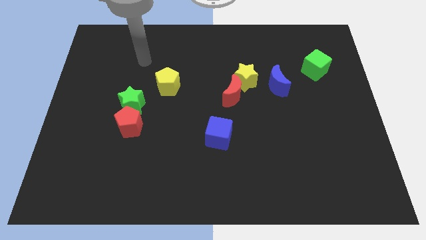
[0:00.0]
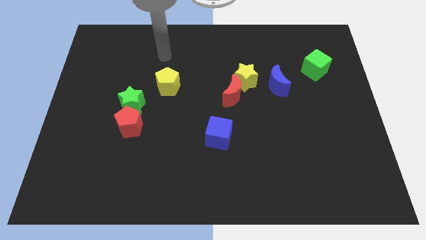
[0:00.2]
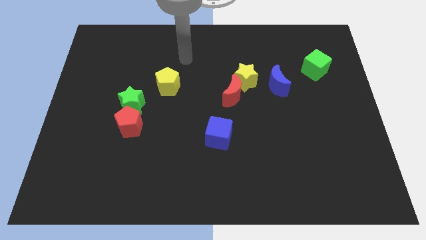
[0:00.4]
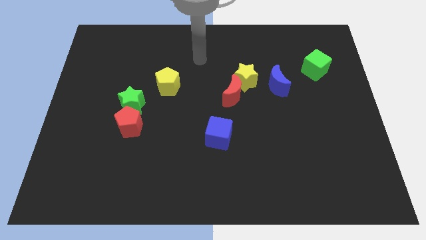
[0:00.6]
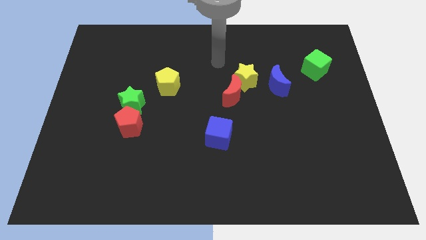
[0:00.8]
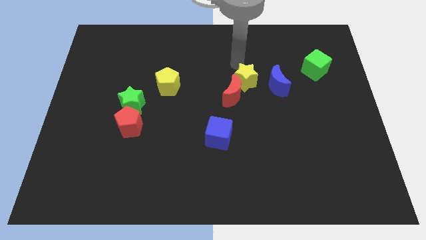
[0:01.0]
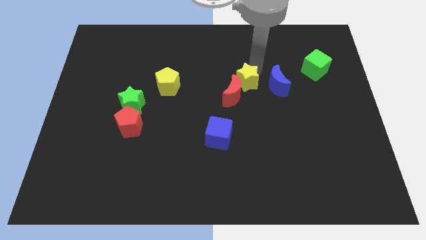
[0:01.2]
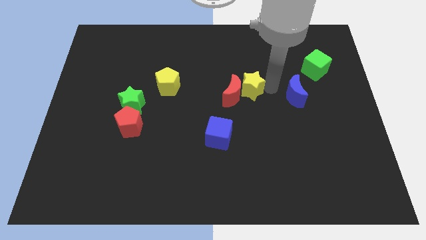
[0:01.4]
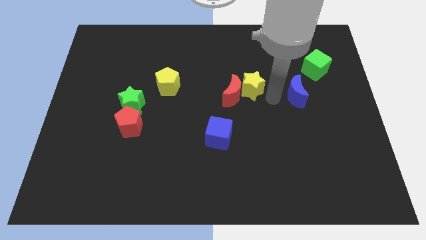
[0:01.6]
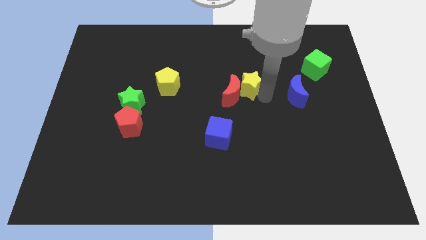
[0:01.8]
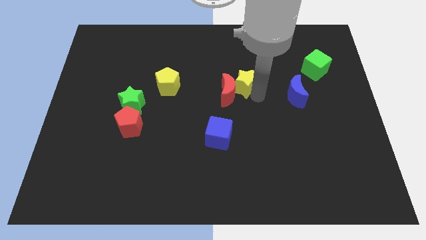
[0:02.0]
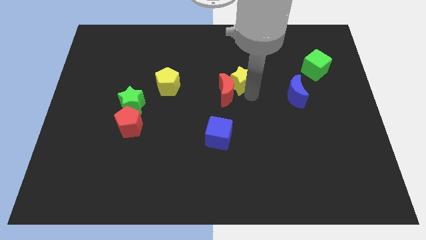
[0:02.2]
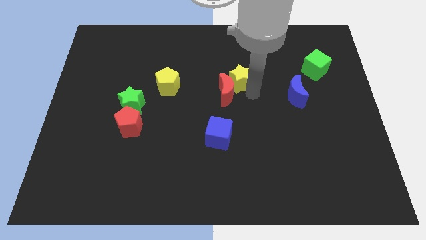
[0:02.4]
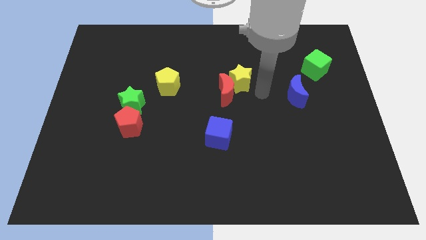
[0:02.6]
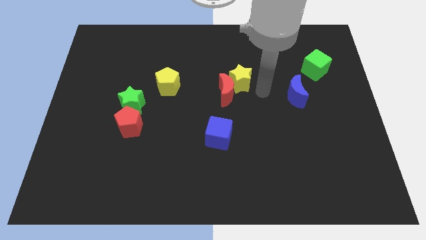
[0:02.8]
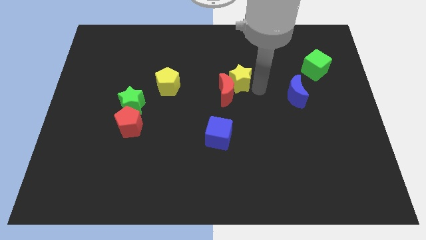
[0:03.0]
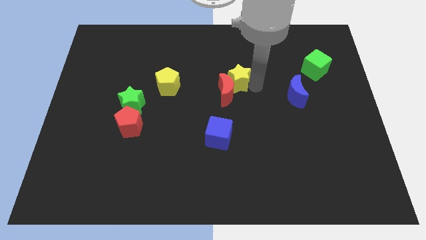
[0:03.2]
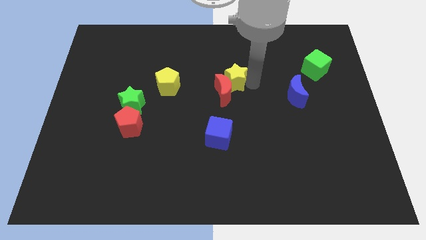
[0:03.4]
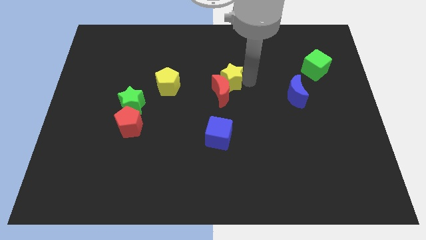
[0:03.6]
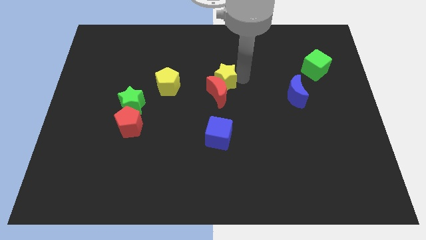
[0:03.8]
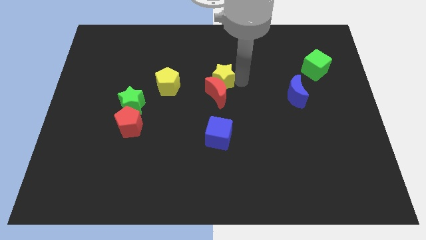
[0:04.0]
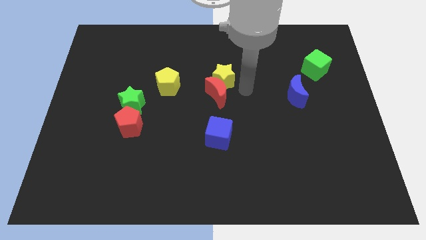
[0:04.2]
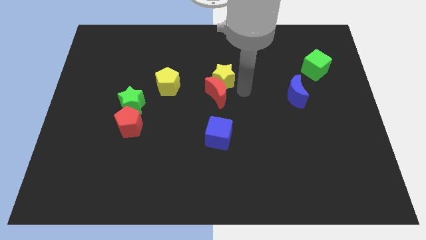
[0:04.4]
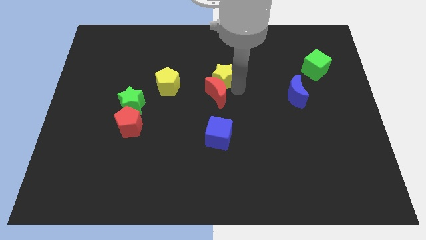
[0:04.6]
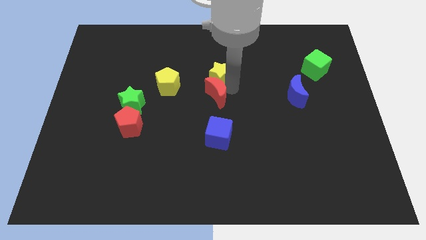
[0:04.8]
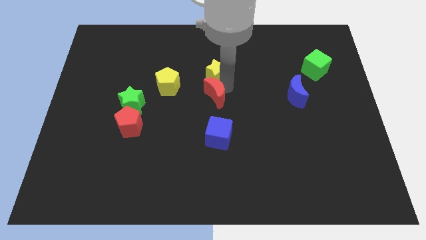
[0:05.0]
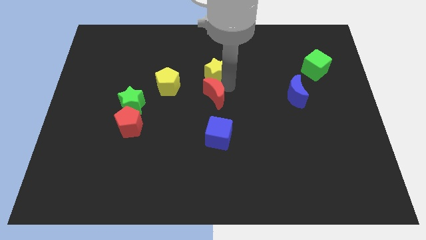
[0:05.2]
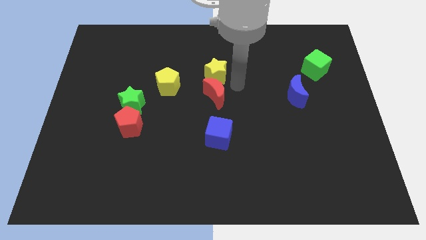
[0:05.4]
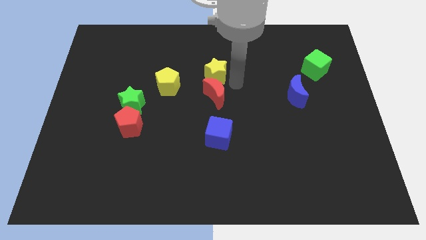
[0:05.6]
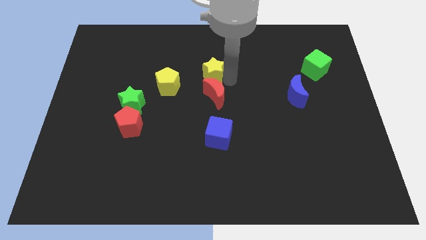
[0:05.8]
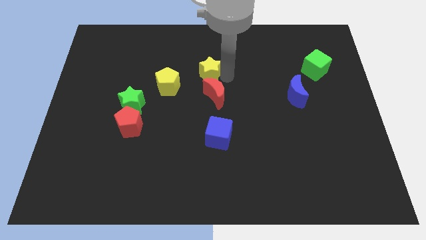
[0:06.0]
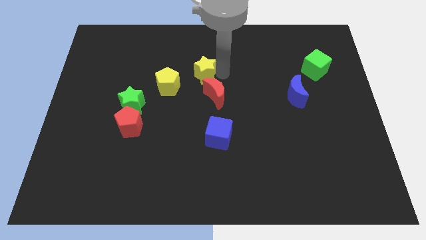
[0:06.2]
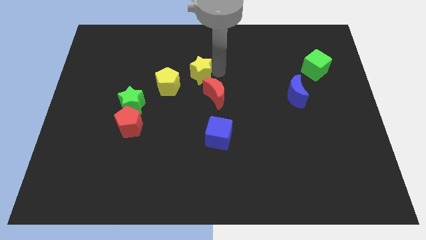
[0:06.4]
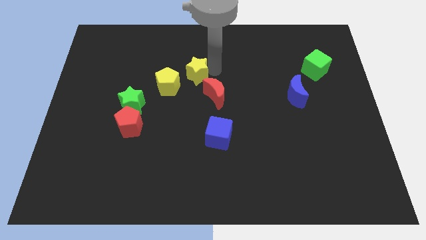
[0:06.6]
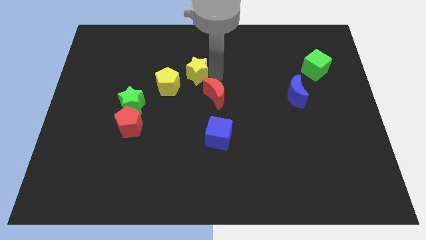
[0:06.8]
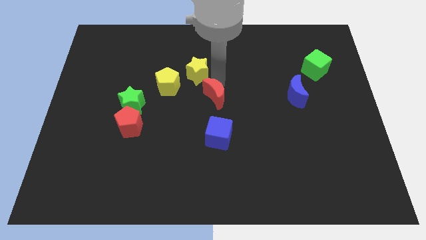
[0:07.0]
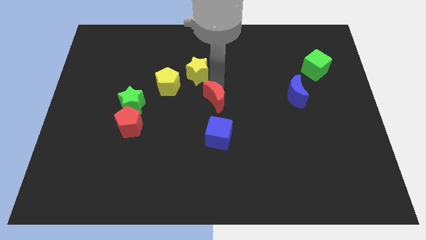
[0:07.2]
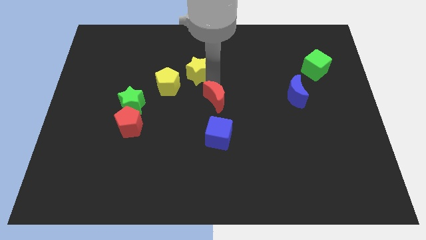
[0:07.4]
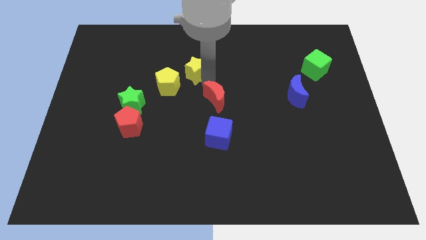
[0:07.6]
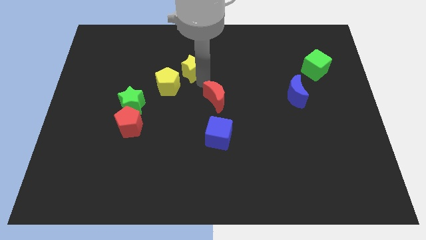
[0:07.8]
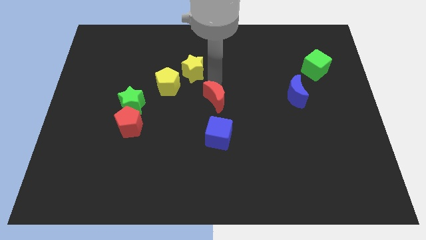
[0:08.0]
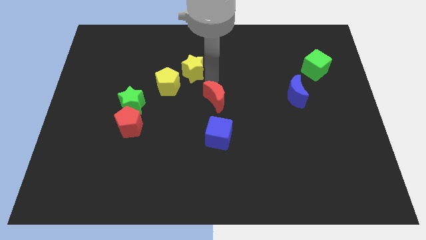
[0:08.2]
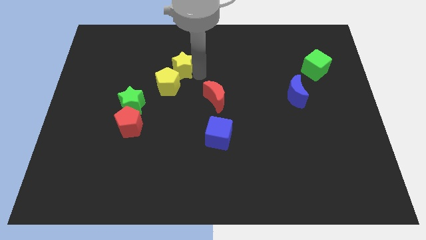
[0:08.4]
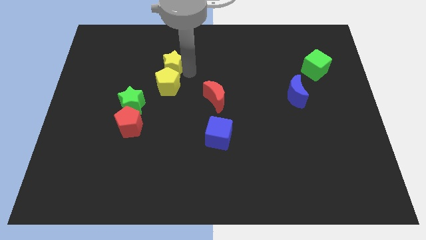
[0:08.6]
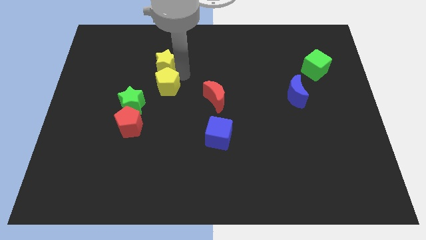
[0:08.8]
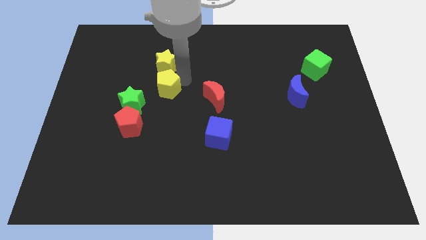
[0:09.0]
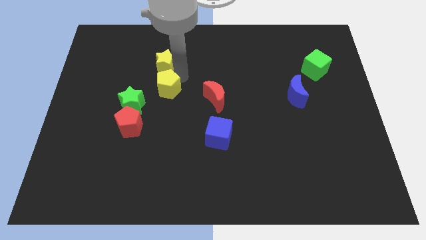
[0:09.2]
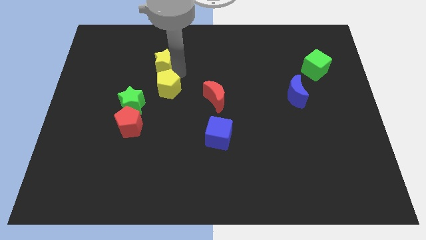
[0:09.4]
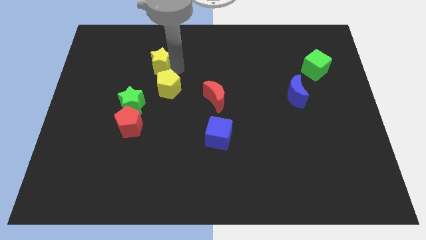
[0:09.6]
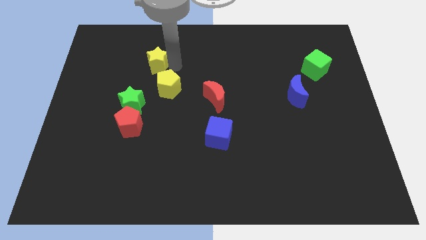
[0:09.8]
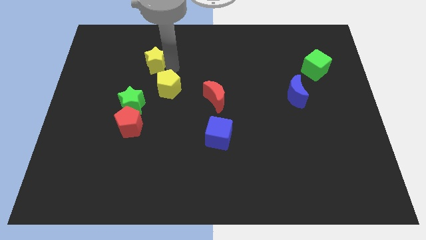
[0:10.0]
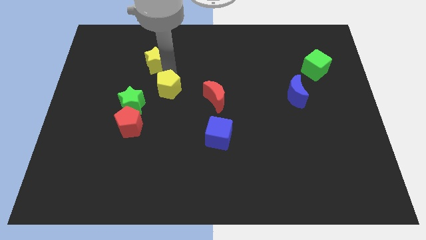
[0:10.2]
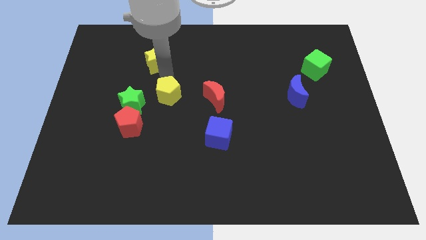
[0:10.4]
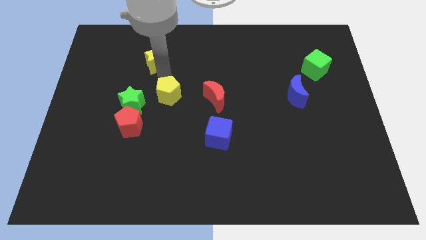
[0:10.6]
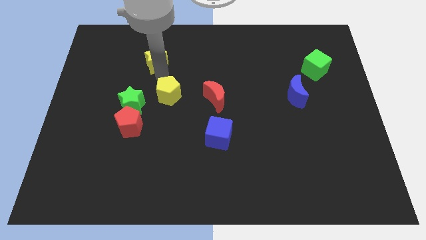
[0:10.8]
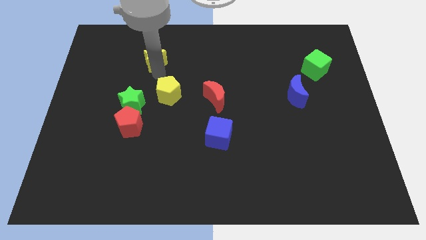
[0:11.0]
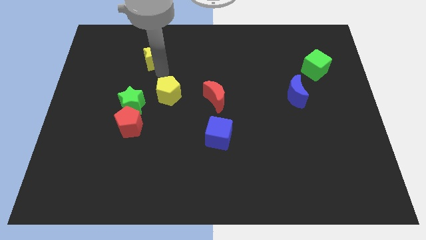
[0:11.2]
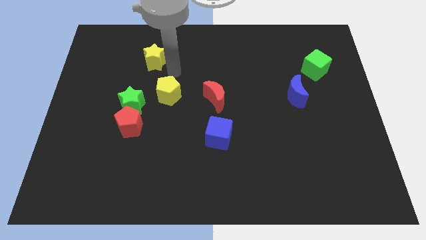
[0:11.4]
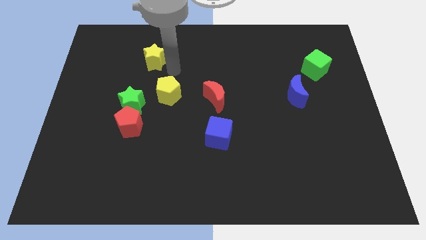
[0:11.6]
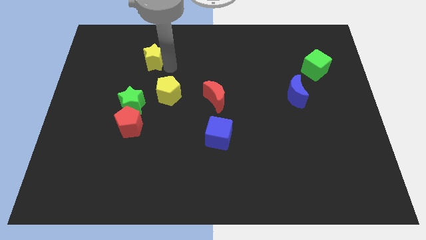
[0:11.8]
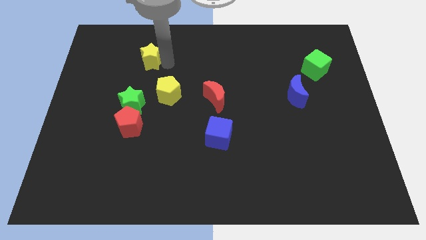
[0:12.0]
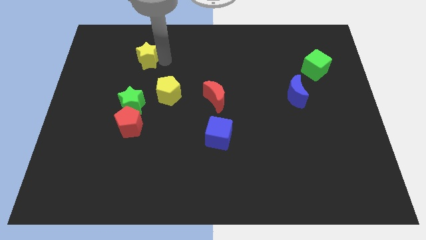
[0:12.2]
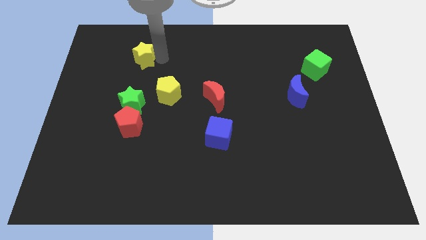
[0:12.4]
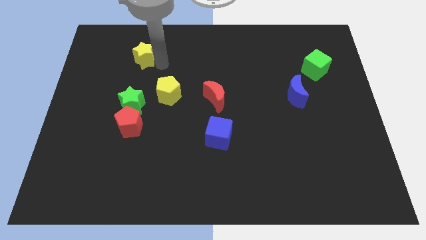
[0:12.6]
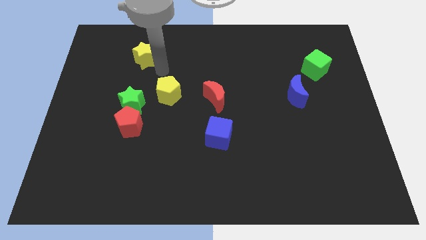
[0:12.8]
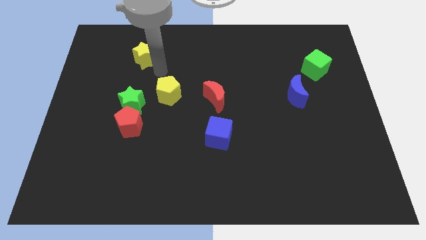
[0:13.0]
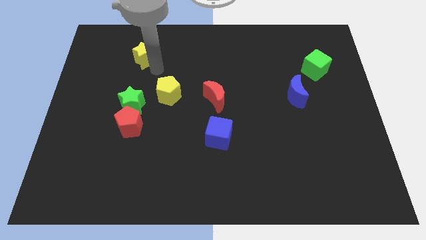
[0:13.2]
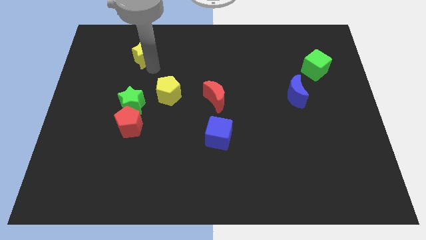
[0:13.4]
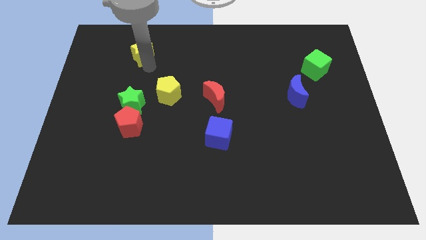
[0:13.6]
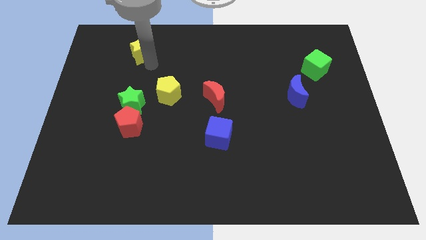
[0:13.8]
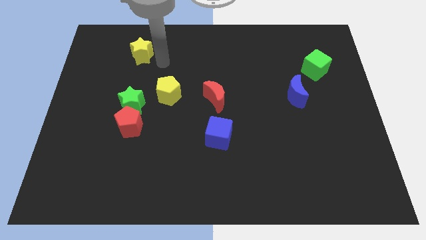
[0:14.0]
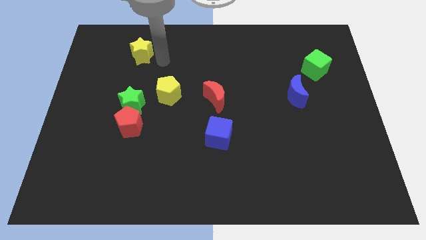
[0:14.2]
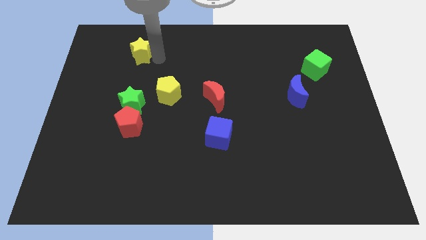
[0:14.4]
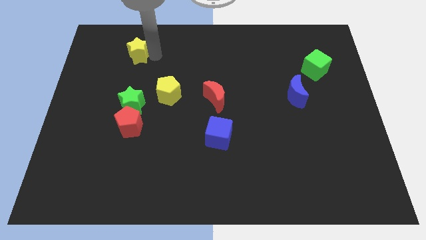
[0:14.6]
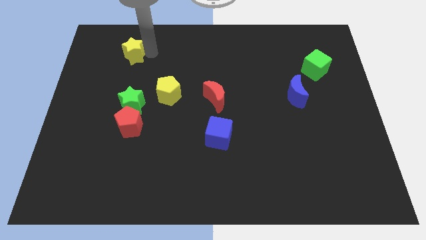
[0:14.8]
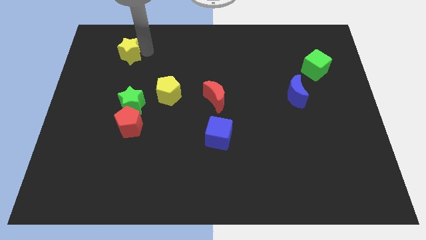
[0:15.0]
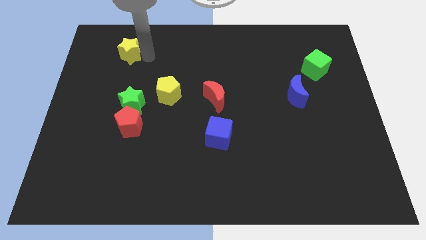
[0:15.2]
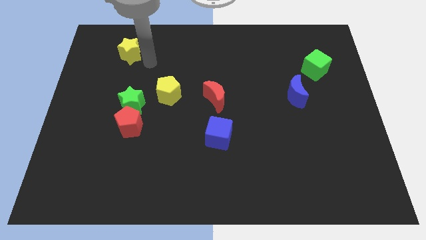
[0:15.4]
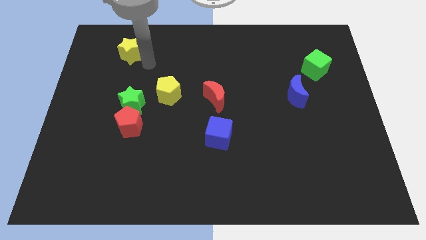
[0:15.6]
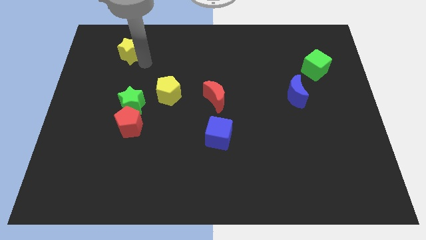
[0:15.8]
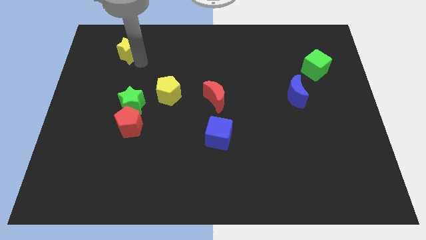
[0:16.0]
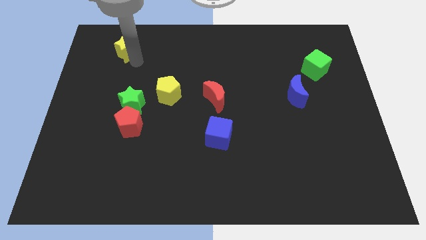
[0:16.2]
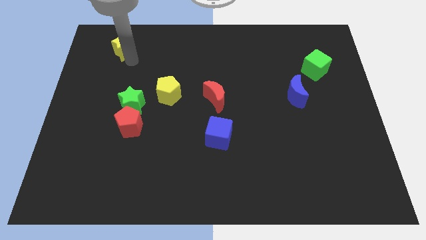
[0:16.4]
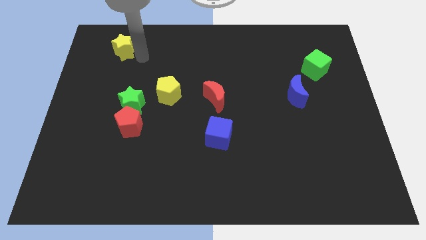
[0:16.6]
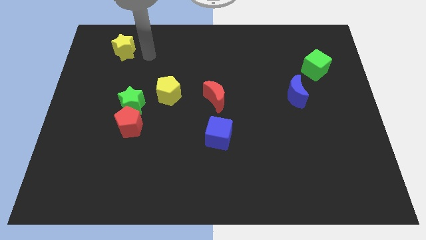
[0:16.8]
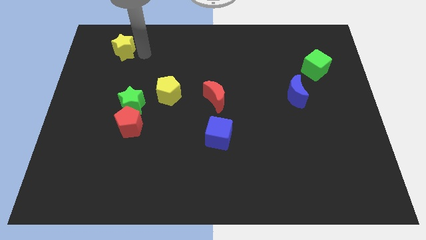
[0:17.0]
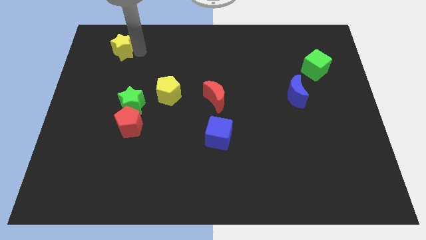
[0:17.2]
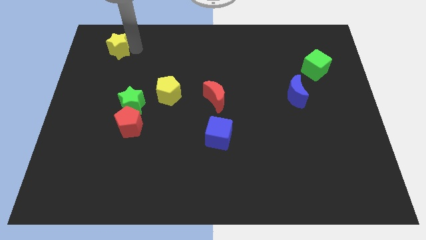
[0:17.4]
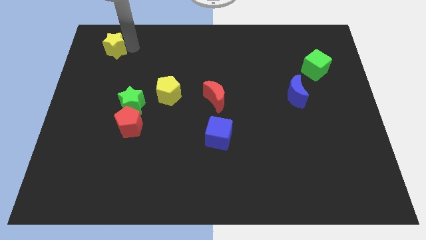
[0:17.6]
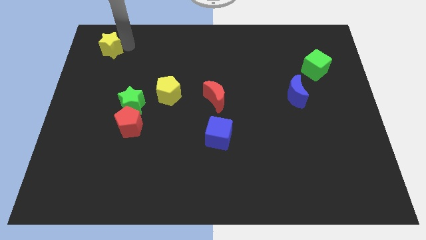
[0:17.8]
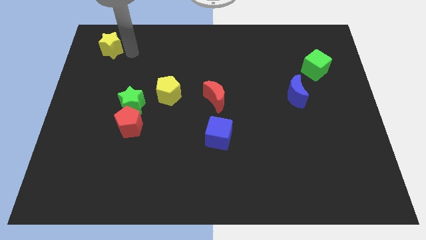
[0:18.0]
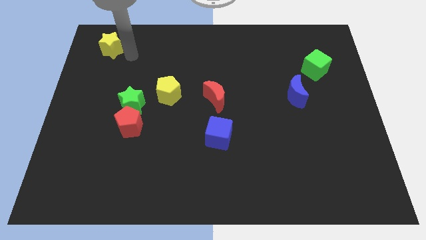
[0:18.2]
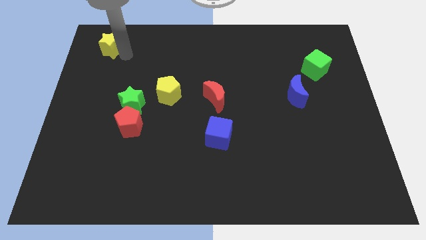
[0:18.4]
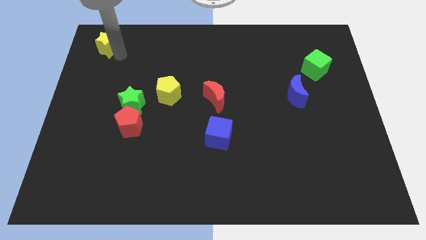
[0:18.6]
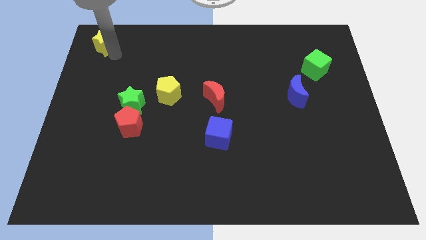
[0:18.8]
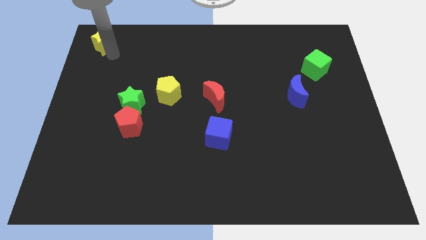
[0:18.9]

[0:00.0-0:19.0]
push the yellow star to the upper left corner
